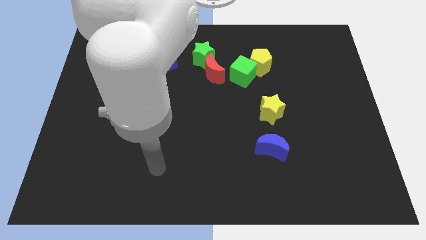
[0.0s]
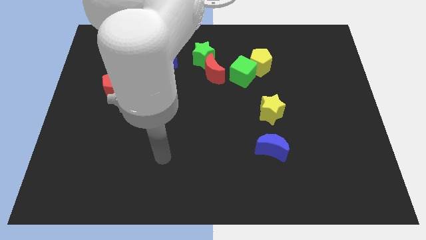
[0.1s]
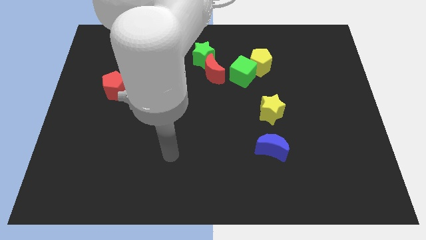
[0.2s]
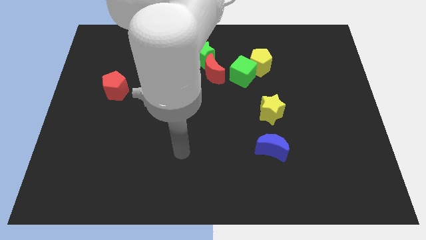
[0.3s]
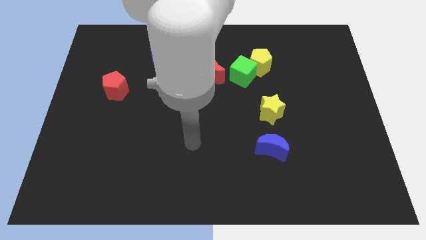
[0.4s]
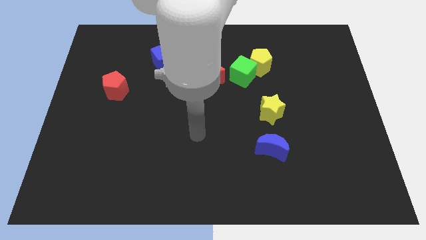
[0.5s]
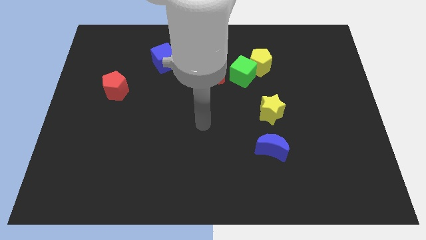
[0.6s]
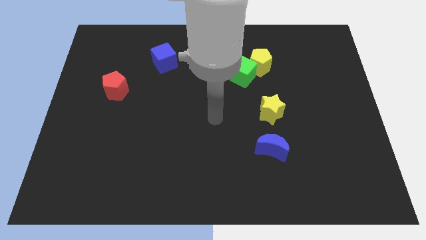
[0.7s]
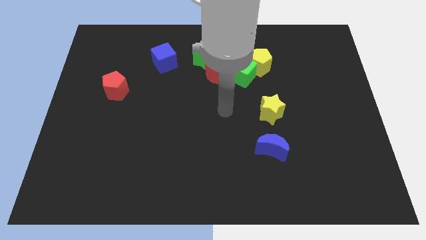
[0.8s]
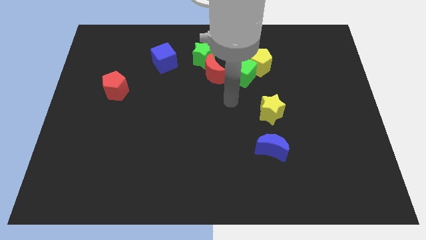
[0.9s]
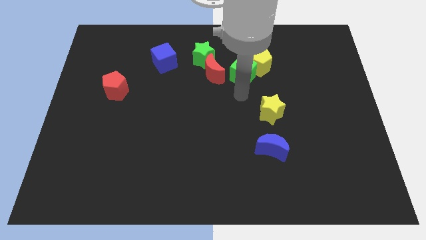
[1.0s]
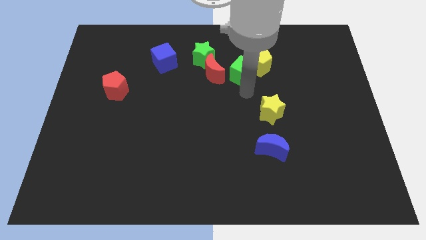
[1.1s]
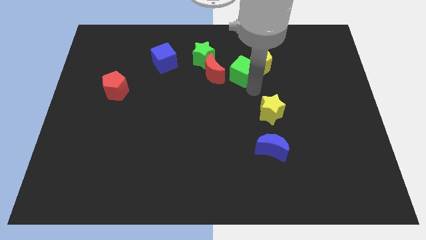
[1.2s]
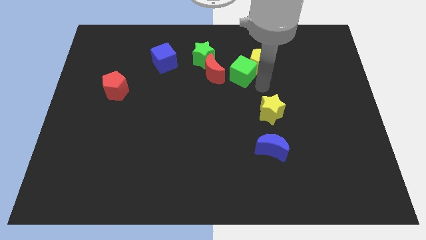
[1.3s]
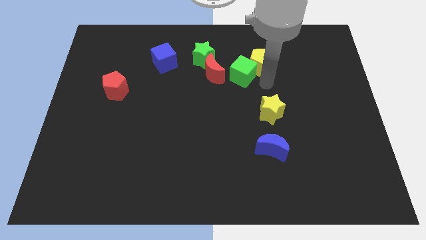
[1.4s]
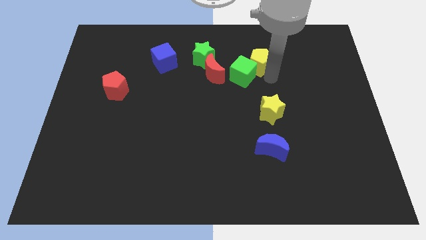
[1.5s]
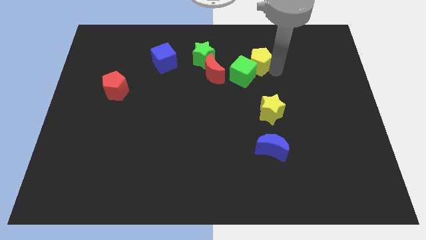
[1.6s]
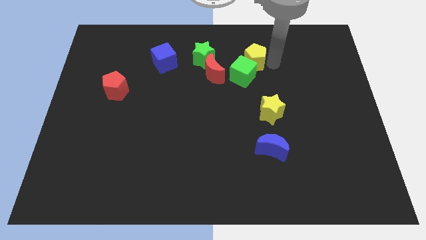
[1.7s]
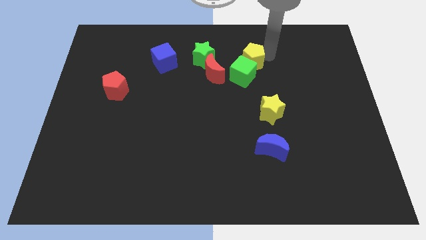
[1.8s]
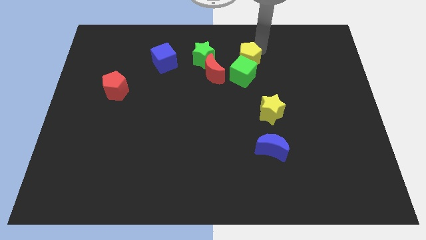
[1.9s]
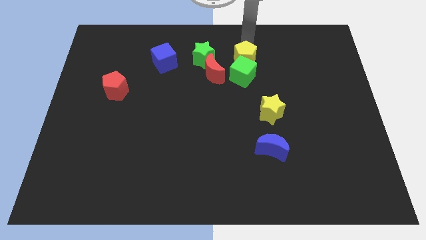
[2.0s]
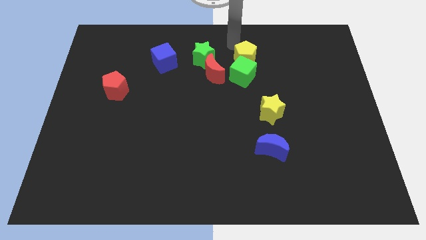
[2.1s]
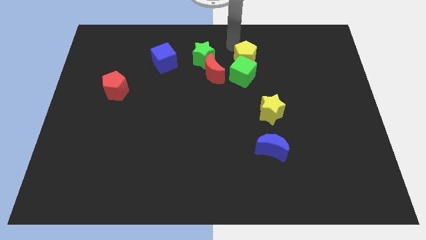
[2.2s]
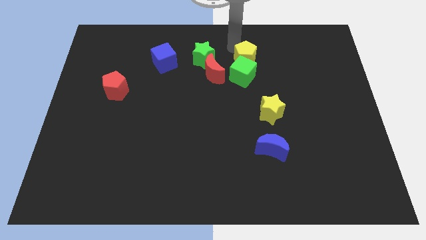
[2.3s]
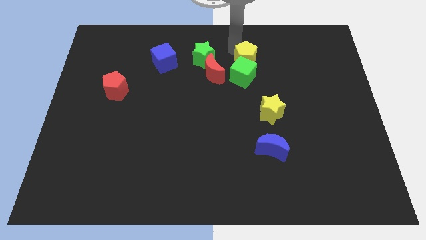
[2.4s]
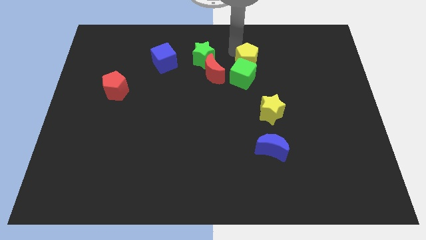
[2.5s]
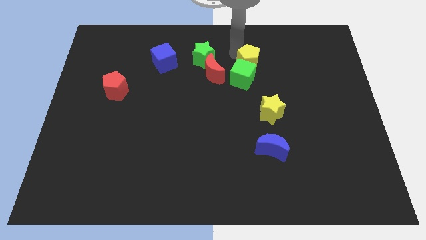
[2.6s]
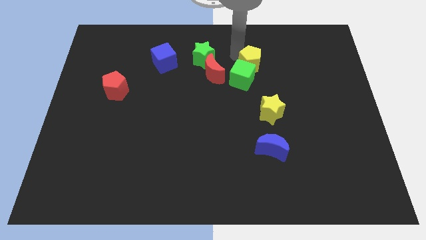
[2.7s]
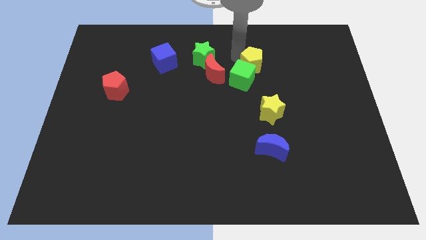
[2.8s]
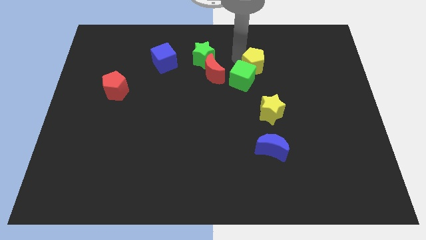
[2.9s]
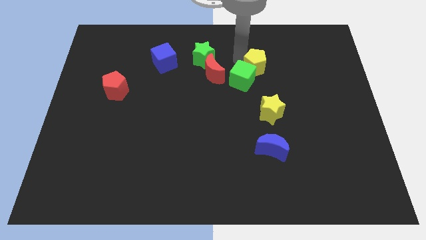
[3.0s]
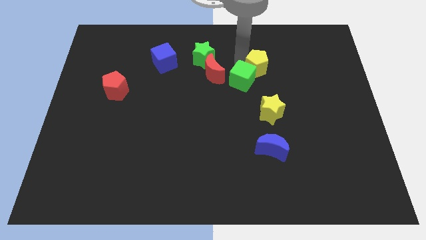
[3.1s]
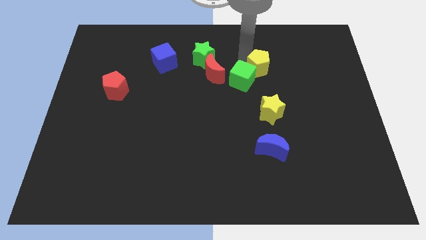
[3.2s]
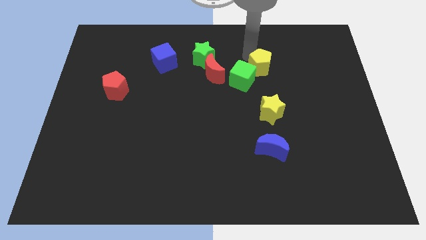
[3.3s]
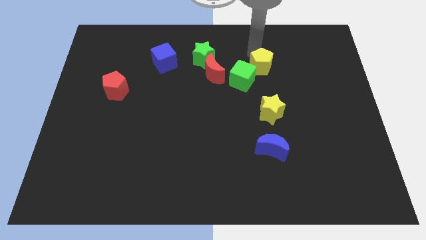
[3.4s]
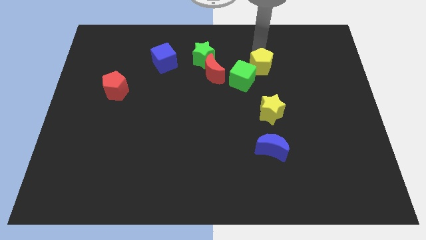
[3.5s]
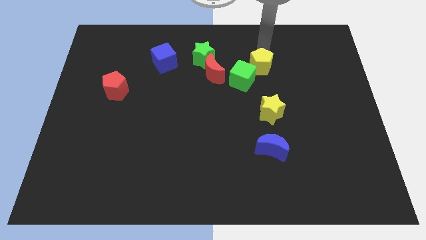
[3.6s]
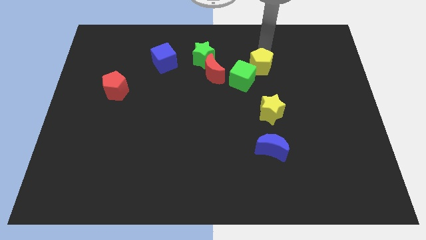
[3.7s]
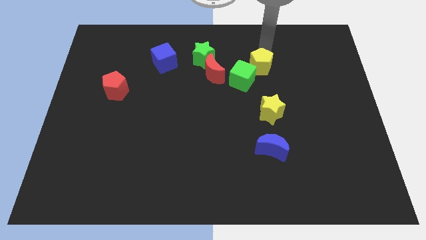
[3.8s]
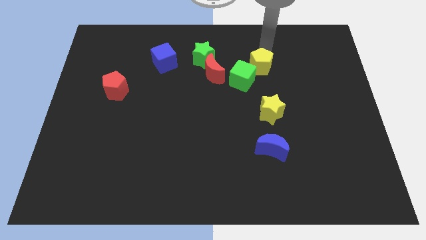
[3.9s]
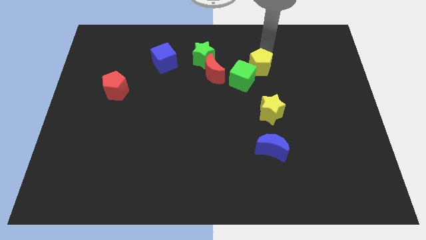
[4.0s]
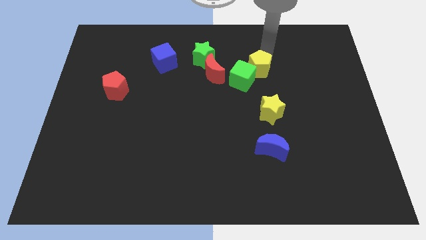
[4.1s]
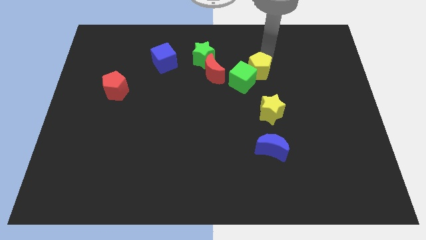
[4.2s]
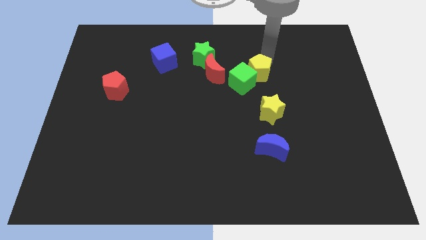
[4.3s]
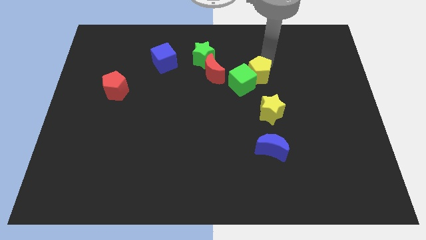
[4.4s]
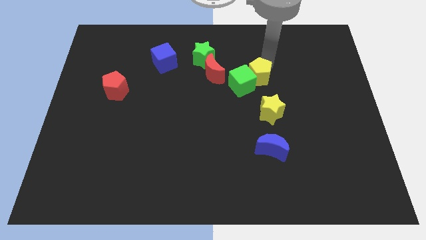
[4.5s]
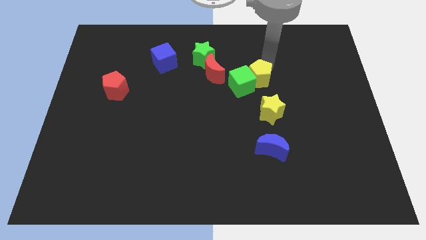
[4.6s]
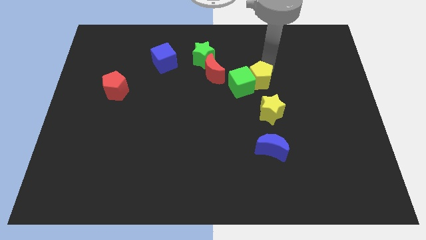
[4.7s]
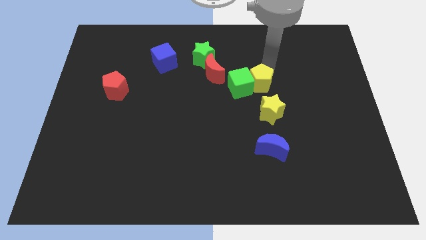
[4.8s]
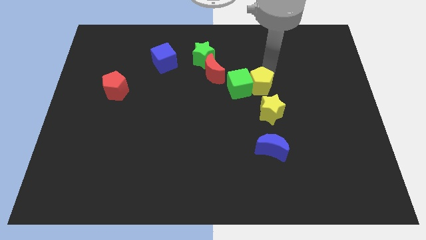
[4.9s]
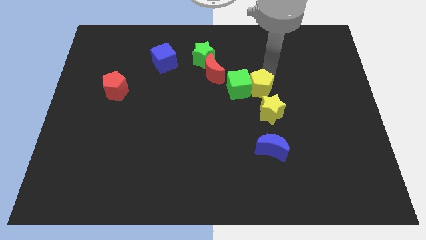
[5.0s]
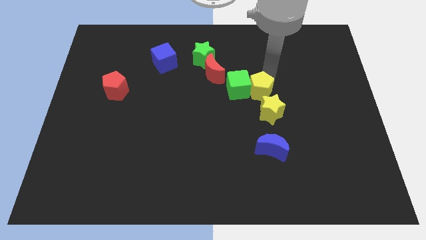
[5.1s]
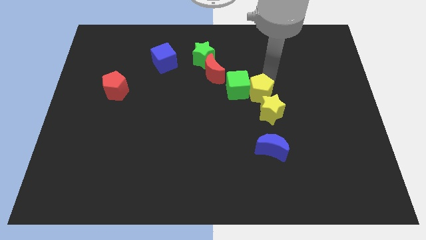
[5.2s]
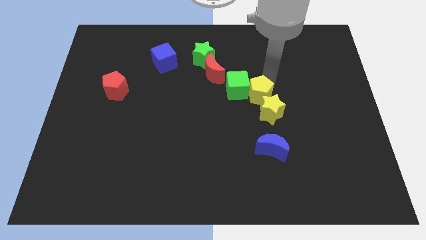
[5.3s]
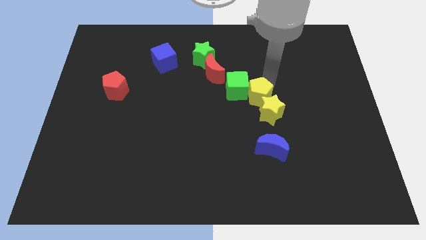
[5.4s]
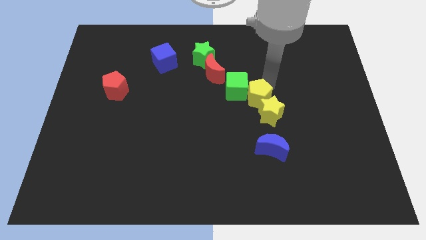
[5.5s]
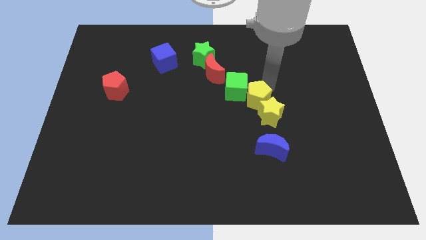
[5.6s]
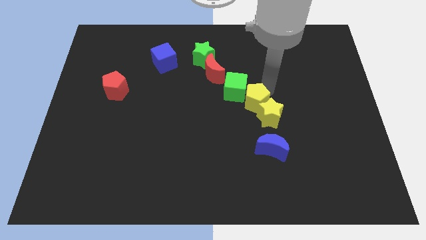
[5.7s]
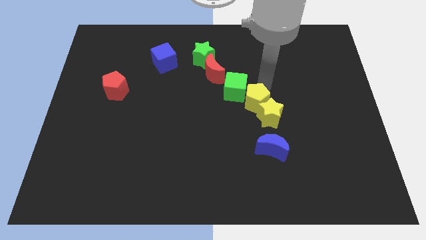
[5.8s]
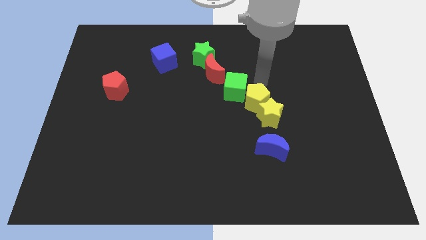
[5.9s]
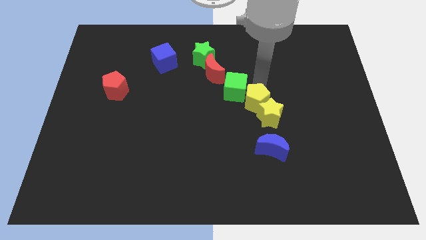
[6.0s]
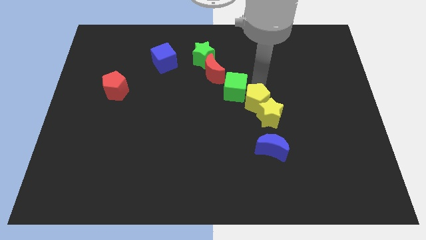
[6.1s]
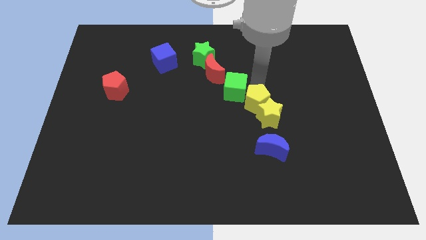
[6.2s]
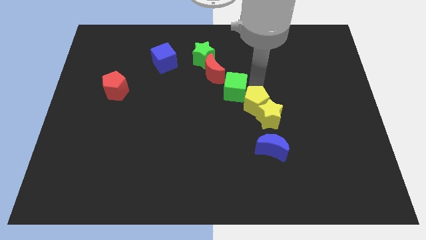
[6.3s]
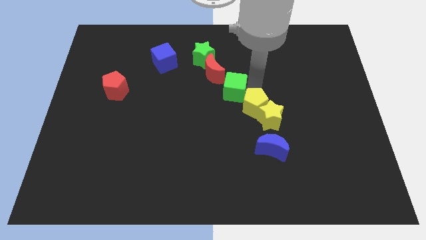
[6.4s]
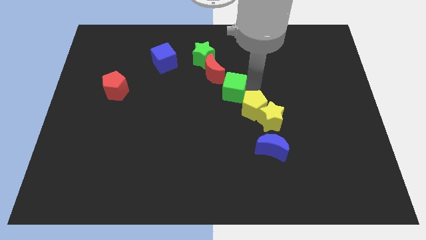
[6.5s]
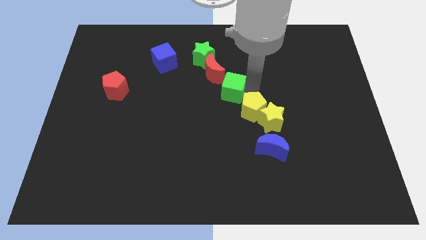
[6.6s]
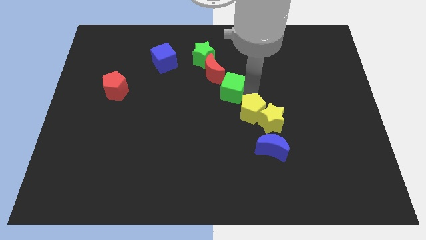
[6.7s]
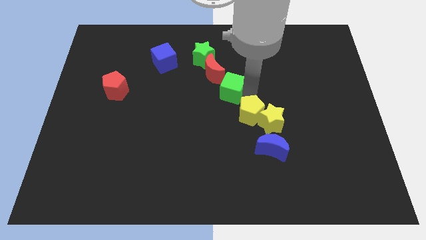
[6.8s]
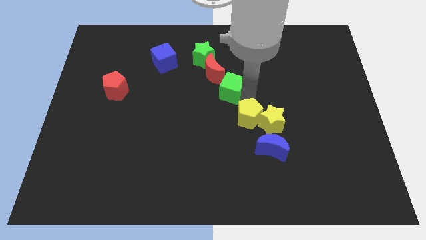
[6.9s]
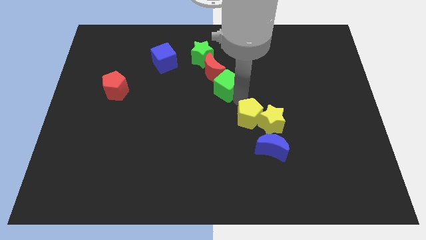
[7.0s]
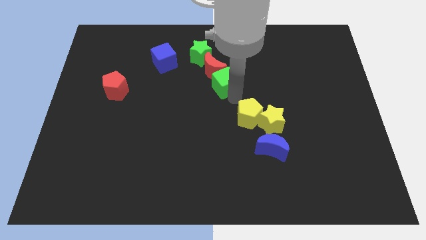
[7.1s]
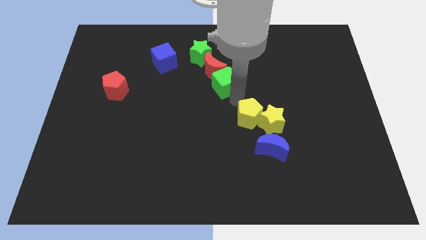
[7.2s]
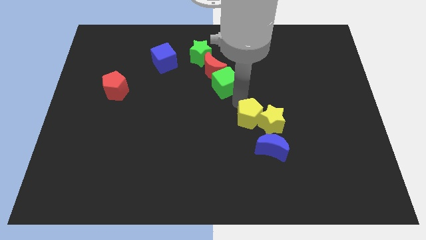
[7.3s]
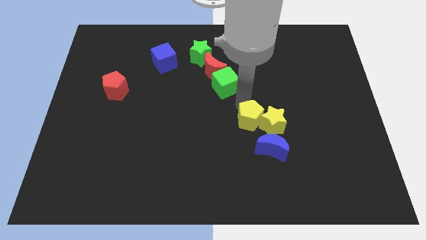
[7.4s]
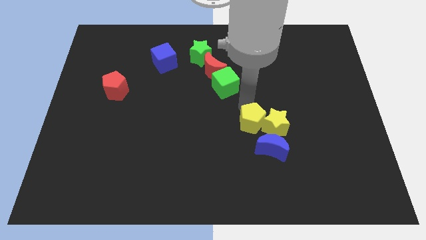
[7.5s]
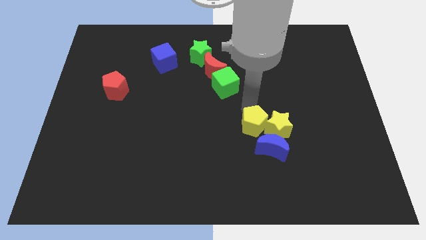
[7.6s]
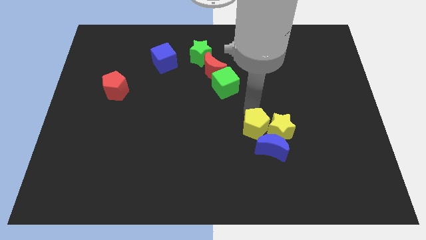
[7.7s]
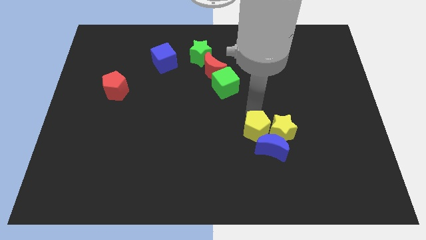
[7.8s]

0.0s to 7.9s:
move the yellow pentagon towards the blue moon

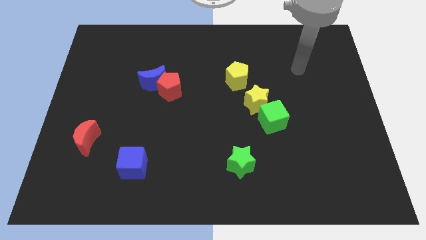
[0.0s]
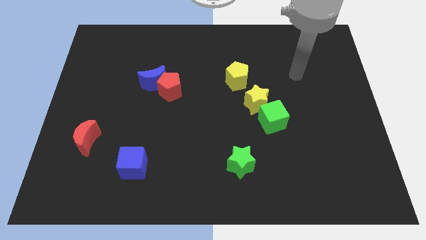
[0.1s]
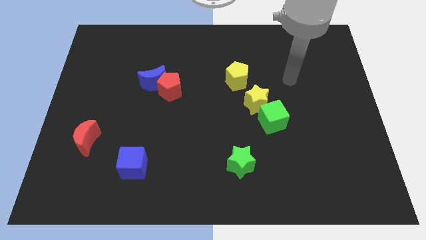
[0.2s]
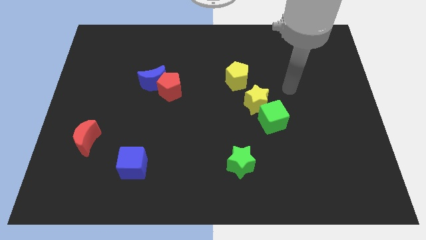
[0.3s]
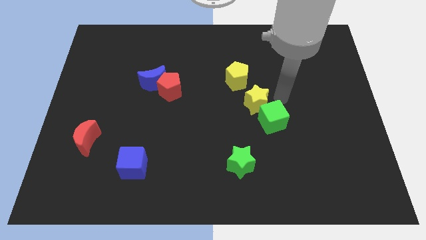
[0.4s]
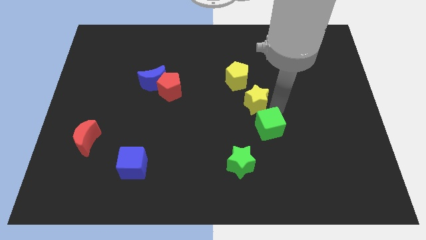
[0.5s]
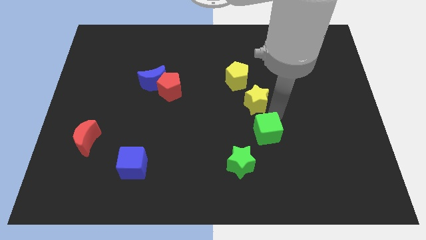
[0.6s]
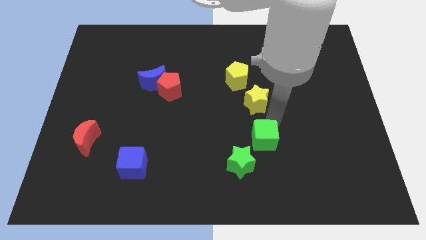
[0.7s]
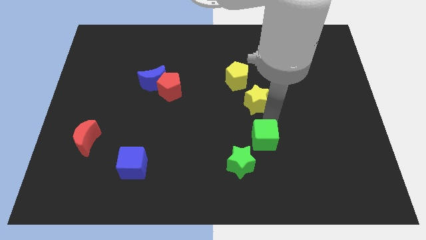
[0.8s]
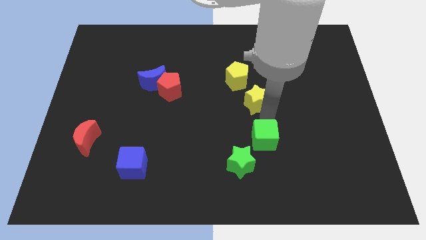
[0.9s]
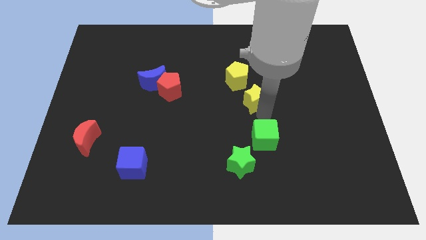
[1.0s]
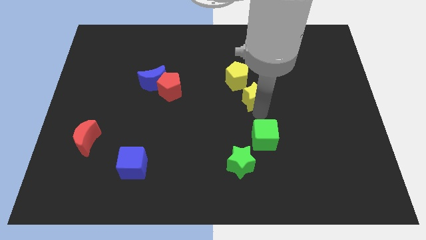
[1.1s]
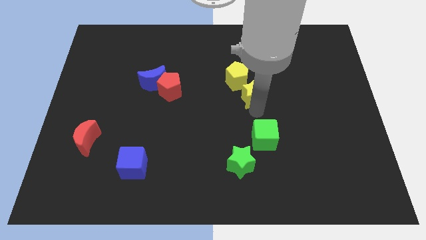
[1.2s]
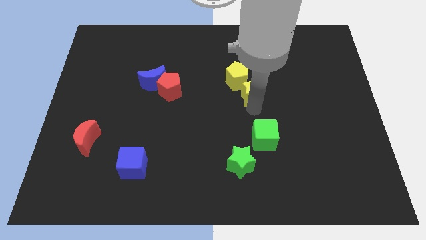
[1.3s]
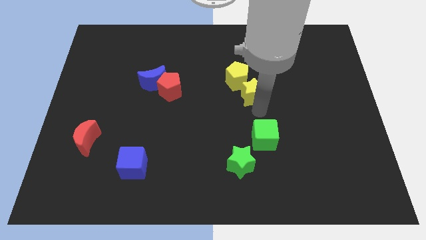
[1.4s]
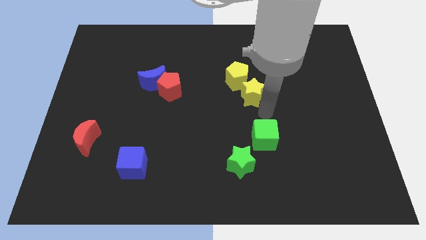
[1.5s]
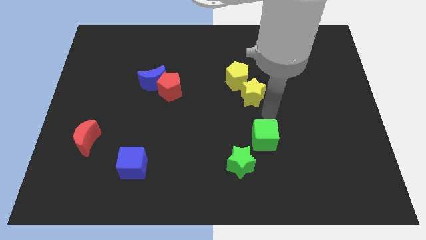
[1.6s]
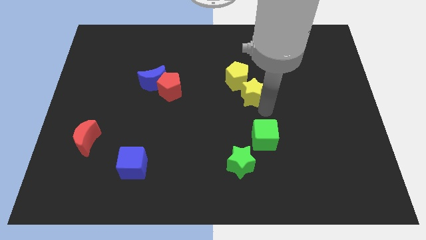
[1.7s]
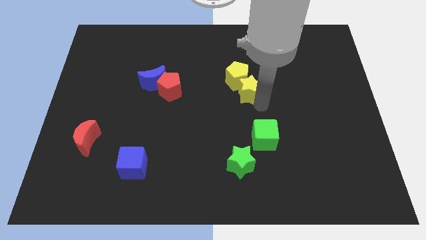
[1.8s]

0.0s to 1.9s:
slide the yellow star towards the yellow pentagon
